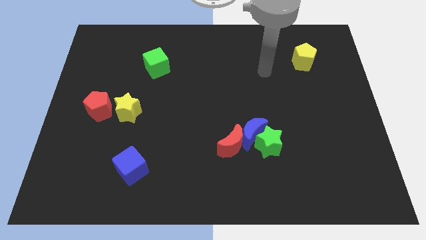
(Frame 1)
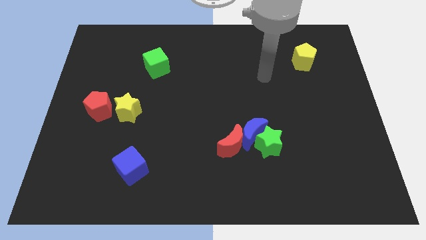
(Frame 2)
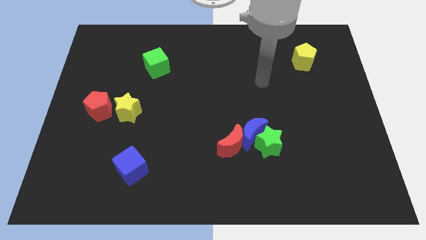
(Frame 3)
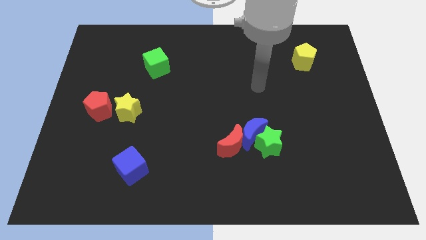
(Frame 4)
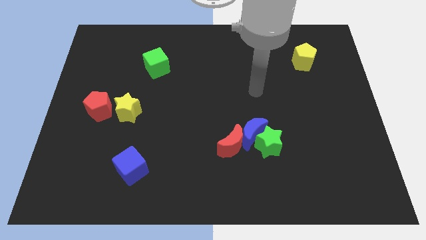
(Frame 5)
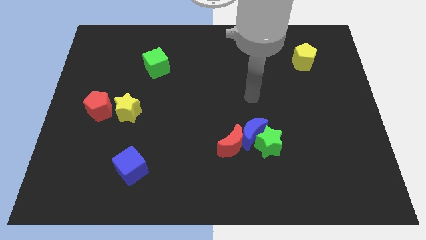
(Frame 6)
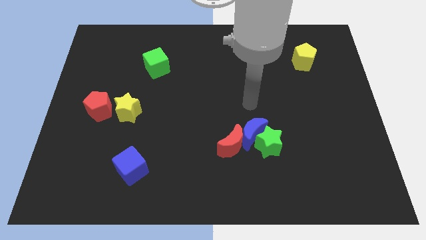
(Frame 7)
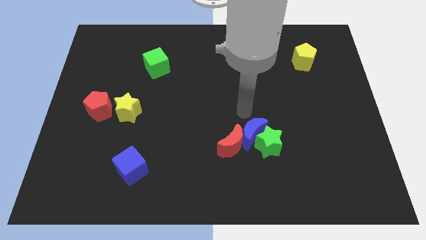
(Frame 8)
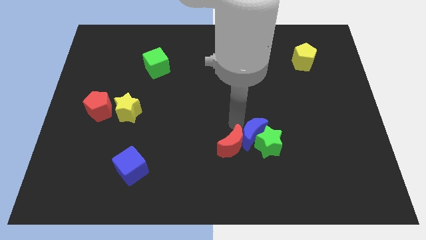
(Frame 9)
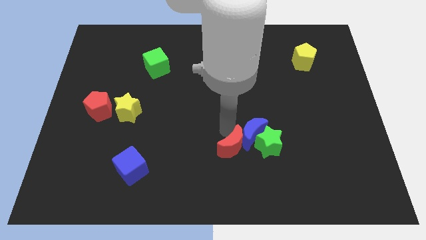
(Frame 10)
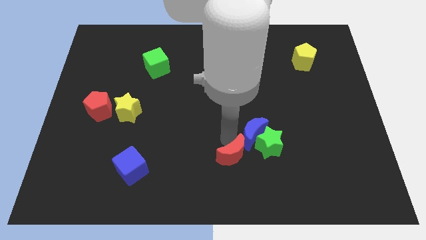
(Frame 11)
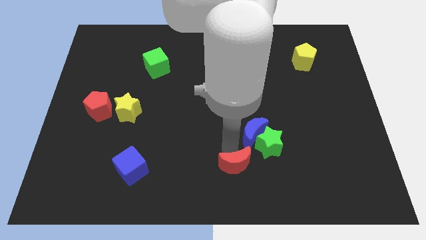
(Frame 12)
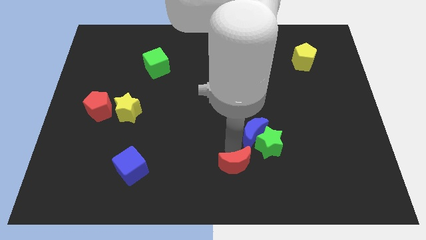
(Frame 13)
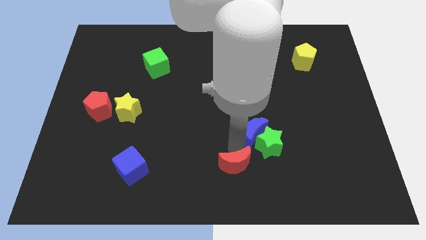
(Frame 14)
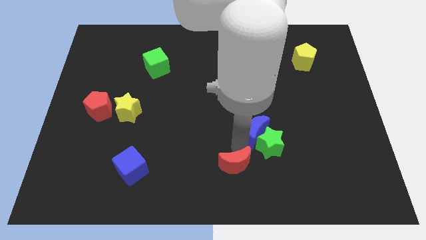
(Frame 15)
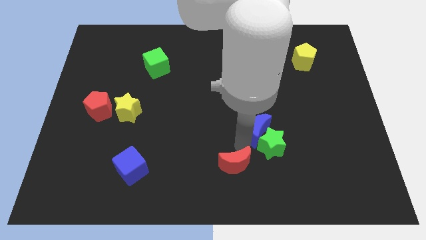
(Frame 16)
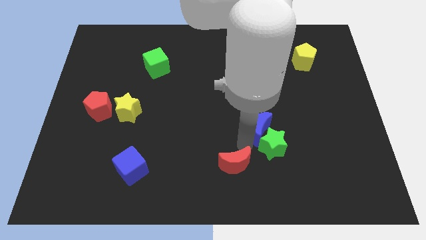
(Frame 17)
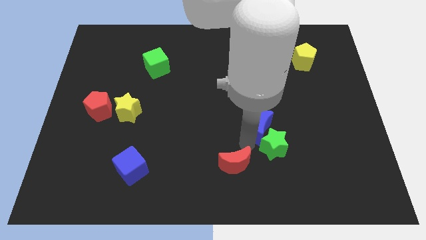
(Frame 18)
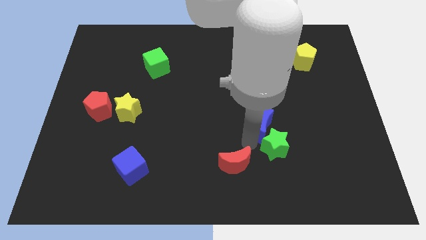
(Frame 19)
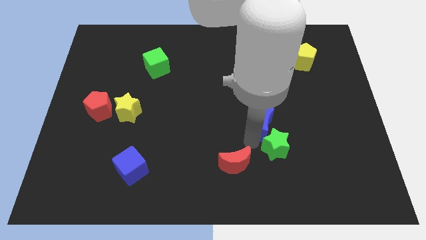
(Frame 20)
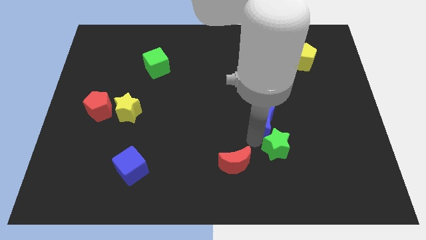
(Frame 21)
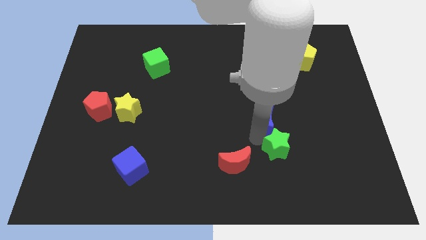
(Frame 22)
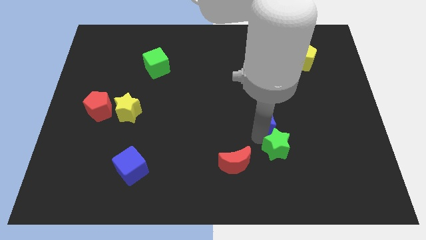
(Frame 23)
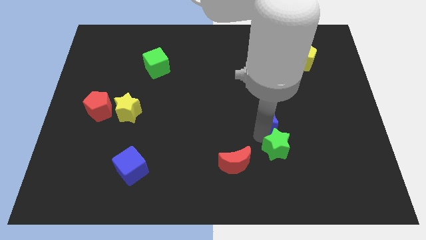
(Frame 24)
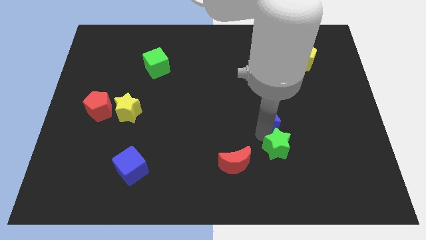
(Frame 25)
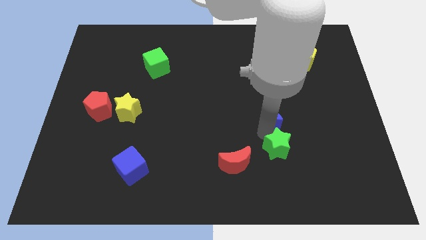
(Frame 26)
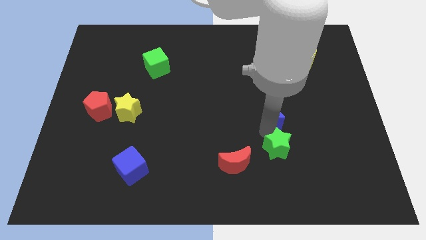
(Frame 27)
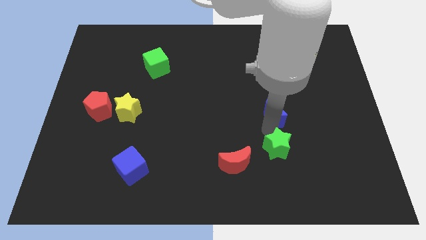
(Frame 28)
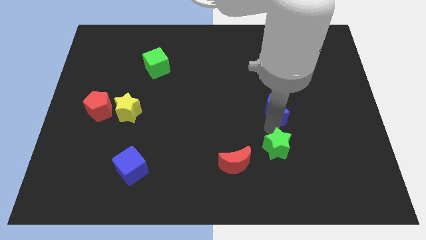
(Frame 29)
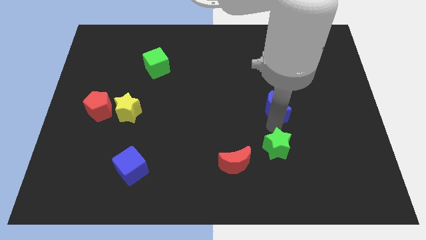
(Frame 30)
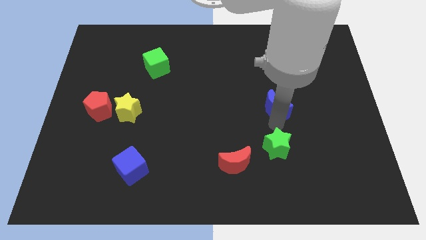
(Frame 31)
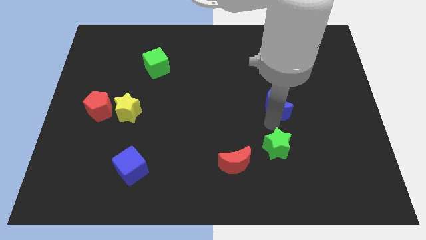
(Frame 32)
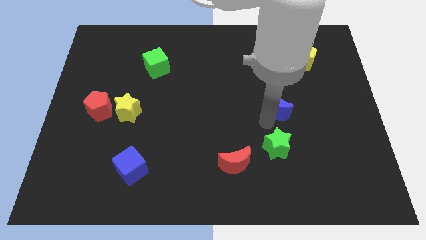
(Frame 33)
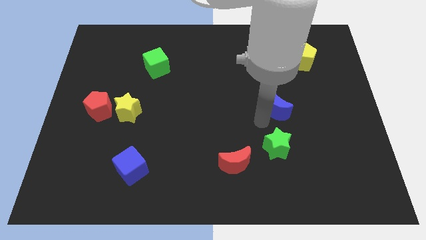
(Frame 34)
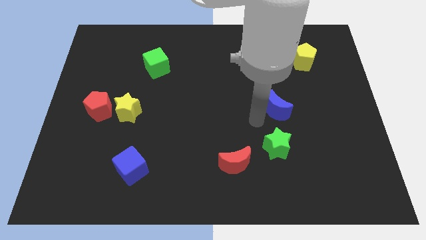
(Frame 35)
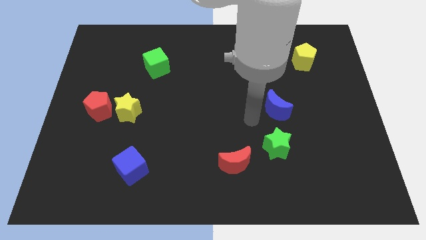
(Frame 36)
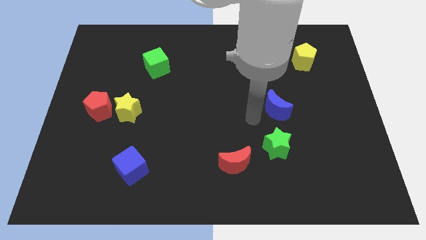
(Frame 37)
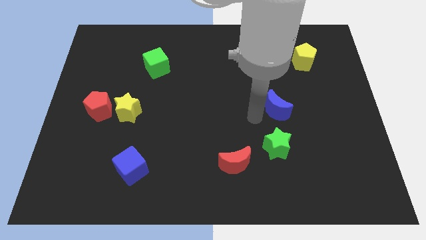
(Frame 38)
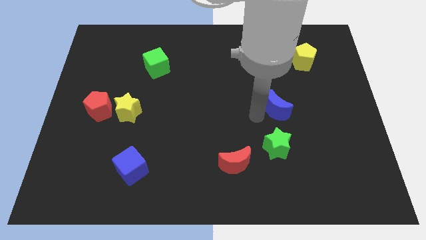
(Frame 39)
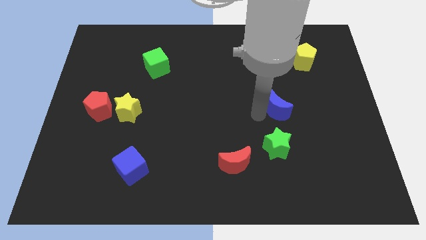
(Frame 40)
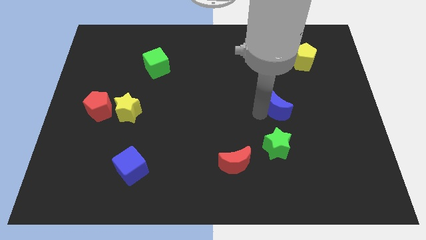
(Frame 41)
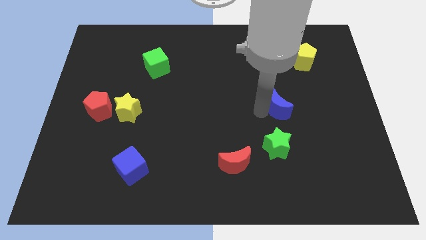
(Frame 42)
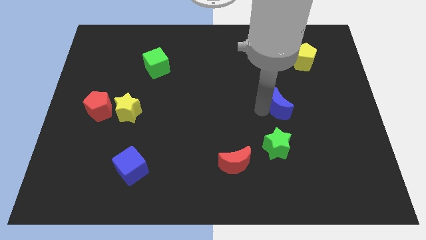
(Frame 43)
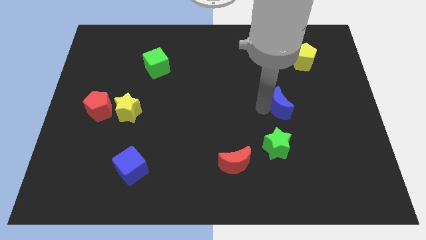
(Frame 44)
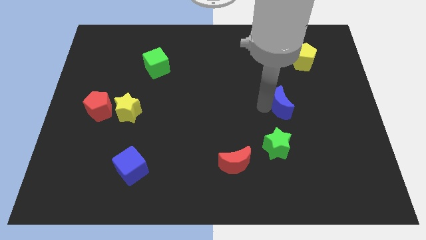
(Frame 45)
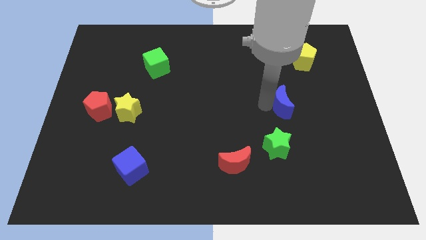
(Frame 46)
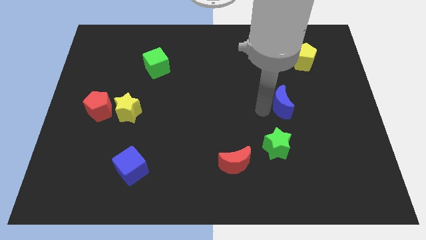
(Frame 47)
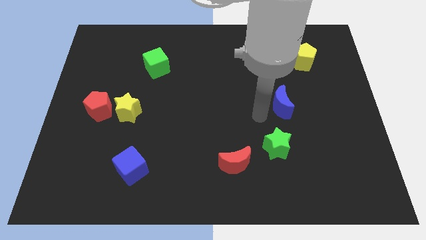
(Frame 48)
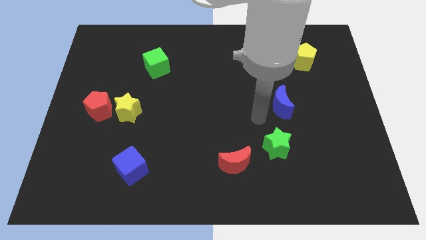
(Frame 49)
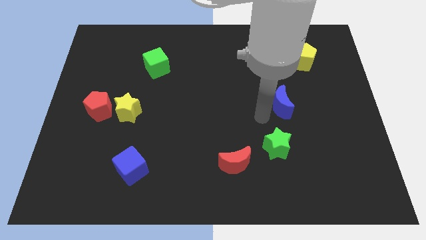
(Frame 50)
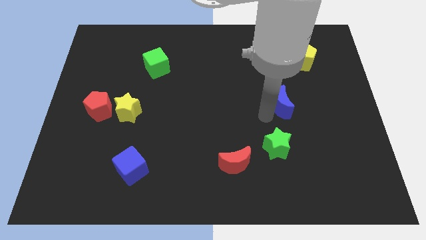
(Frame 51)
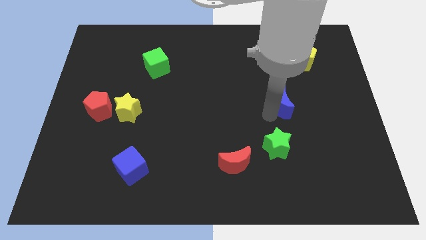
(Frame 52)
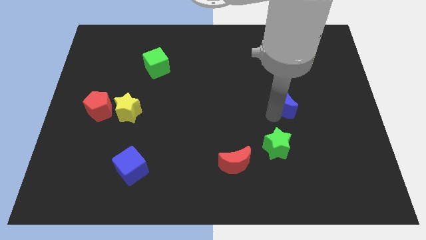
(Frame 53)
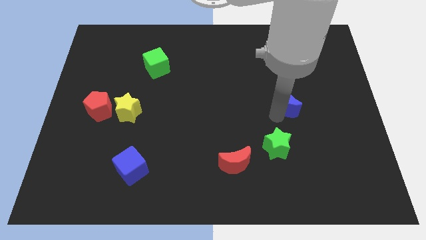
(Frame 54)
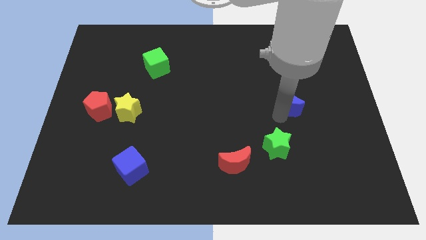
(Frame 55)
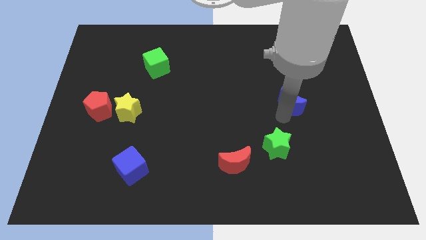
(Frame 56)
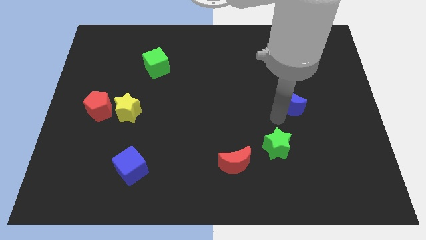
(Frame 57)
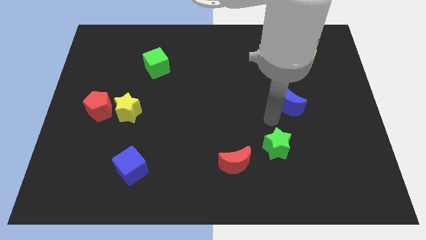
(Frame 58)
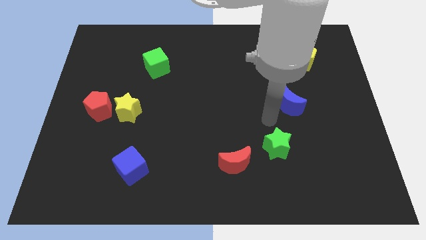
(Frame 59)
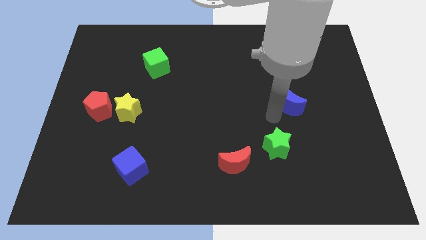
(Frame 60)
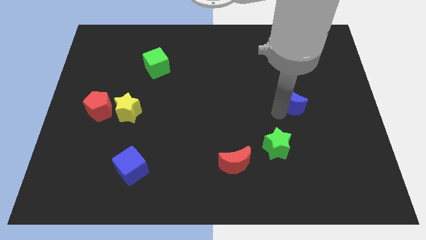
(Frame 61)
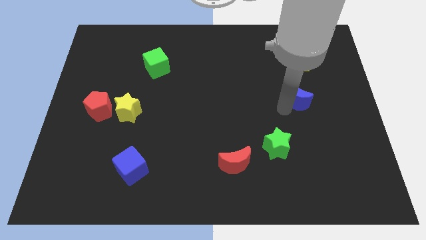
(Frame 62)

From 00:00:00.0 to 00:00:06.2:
slide the blue moon to the bottom of the yellow pentagon

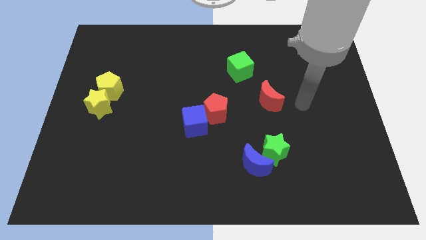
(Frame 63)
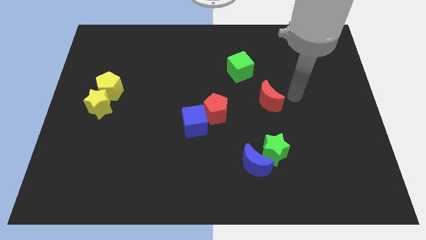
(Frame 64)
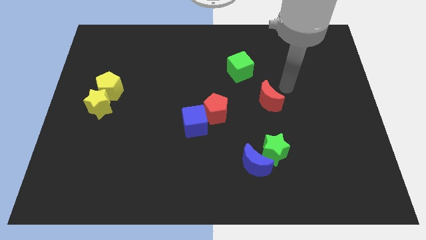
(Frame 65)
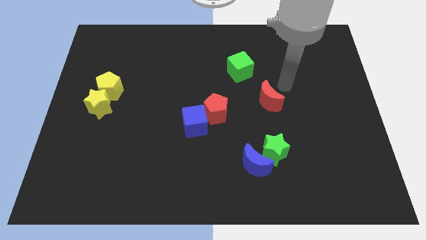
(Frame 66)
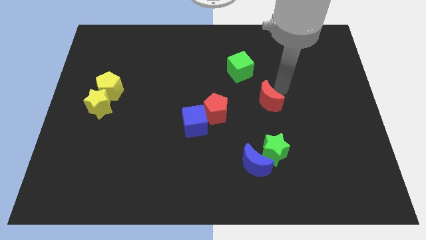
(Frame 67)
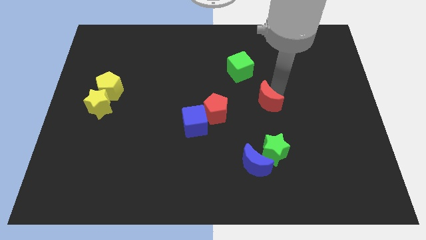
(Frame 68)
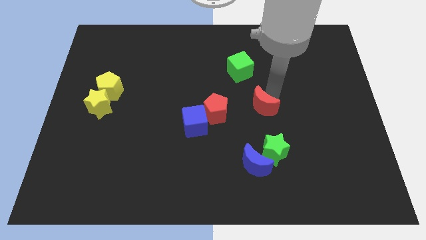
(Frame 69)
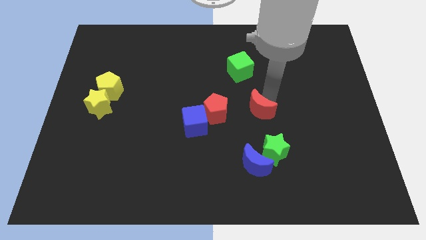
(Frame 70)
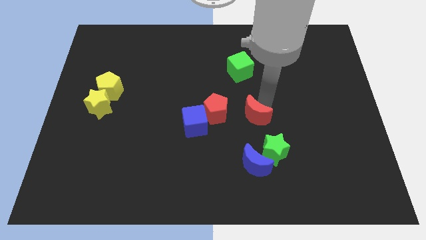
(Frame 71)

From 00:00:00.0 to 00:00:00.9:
put the red moon to the right side of the blue cube

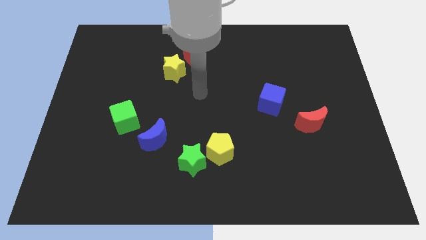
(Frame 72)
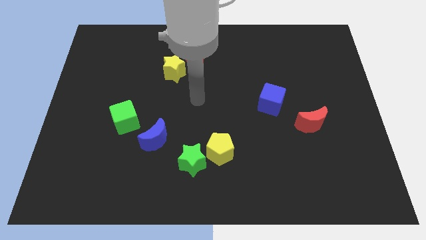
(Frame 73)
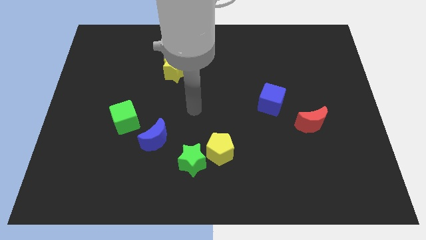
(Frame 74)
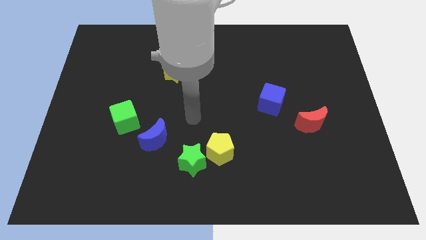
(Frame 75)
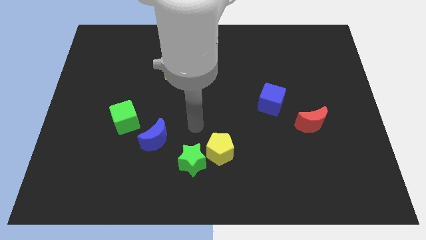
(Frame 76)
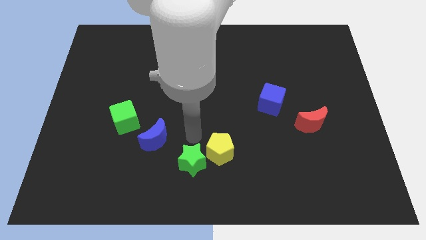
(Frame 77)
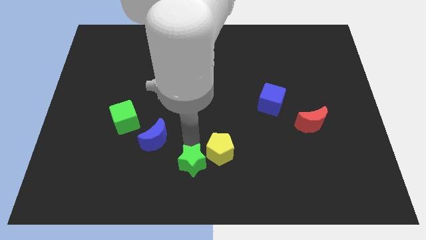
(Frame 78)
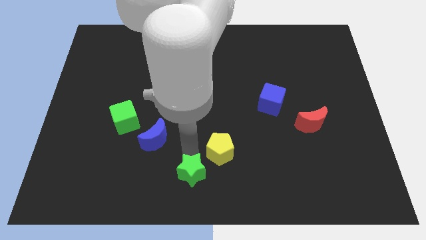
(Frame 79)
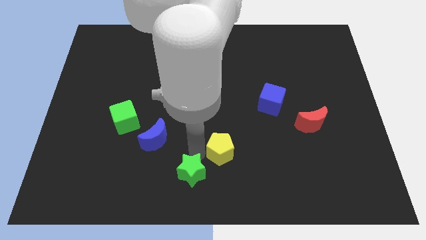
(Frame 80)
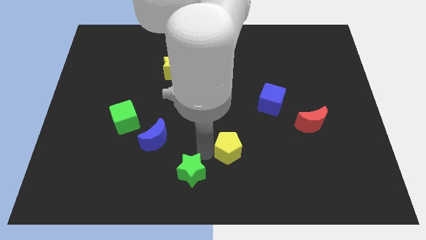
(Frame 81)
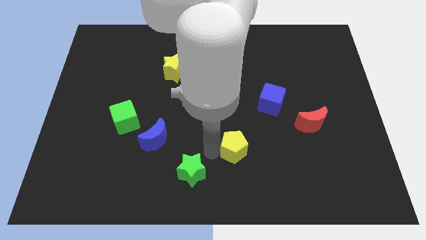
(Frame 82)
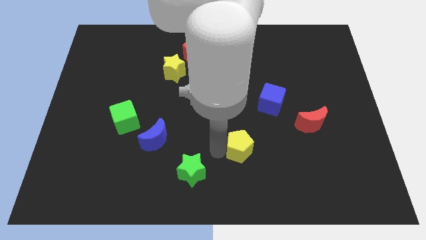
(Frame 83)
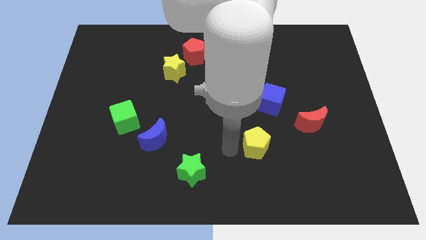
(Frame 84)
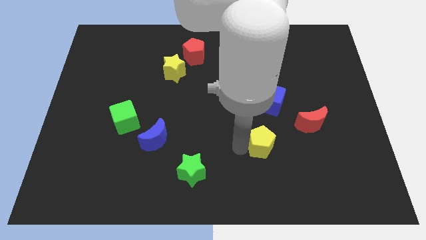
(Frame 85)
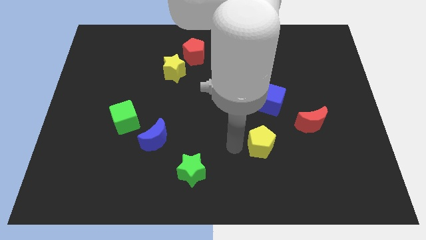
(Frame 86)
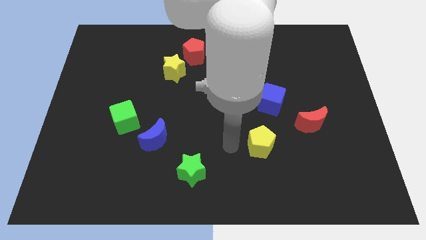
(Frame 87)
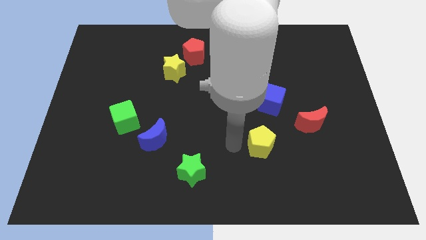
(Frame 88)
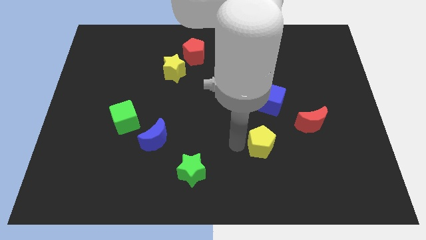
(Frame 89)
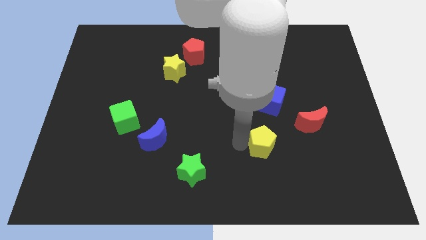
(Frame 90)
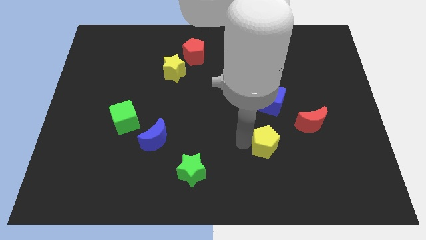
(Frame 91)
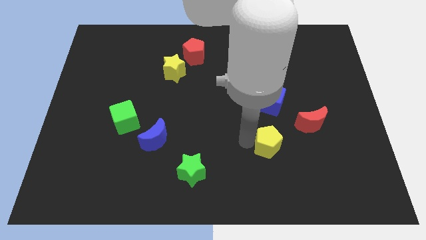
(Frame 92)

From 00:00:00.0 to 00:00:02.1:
push the yellow pentagon to the bottom left of the red moon
